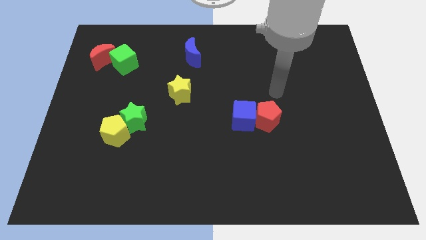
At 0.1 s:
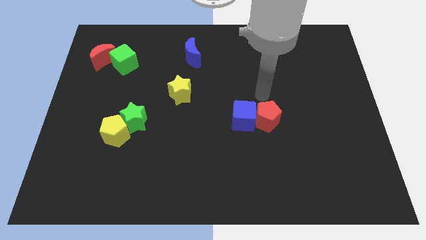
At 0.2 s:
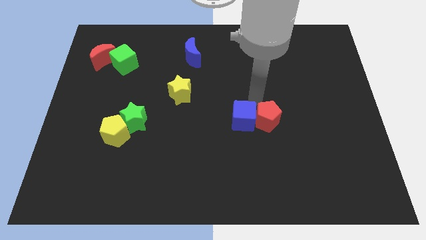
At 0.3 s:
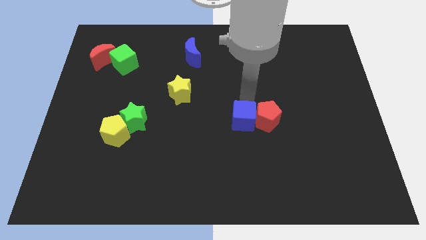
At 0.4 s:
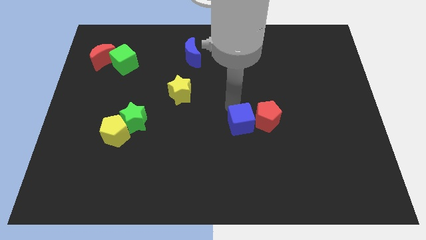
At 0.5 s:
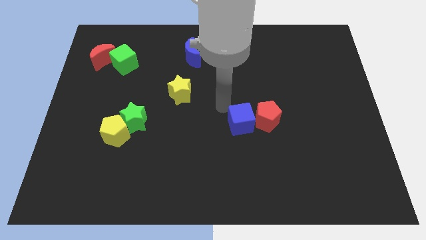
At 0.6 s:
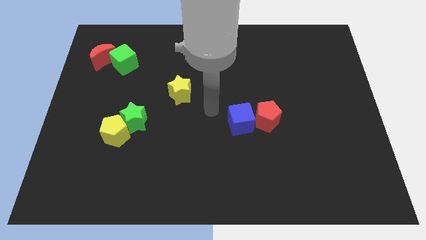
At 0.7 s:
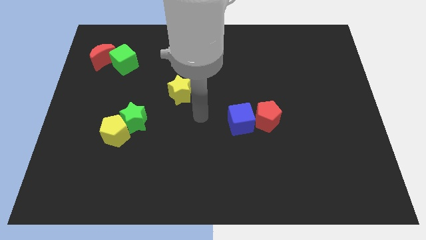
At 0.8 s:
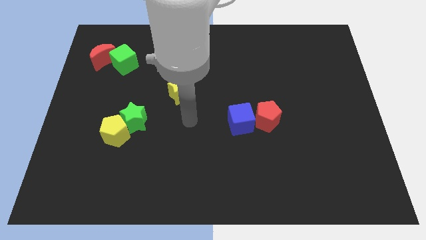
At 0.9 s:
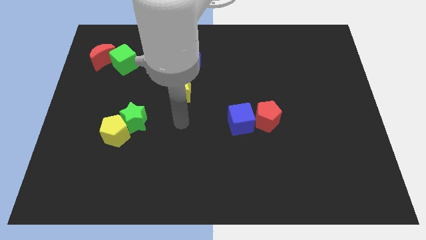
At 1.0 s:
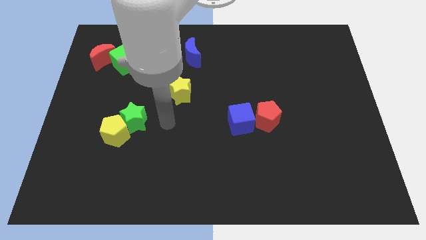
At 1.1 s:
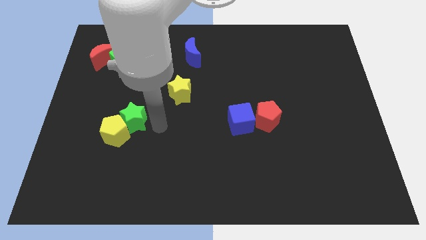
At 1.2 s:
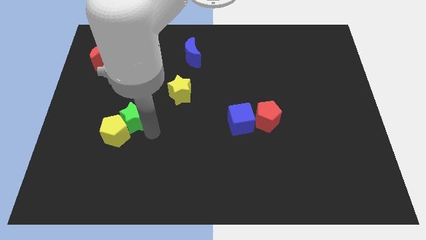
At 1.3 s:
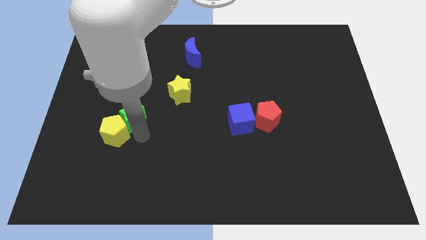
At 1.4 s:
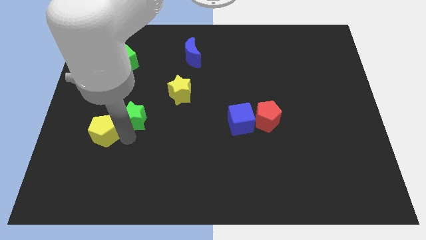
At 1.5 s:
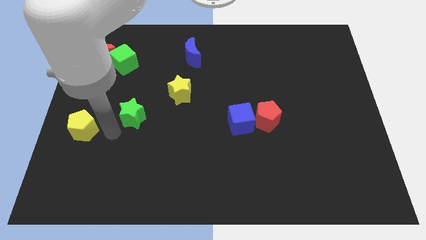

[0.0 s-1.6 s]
separate the green star from the yellow pentagon

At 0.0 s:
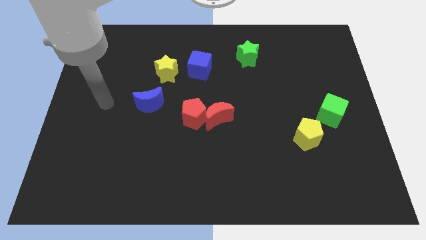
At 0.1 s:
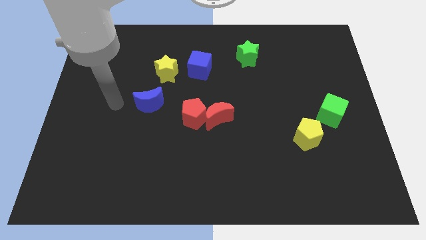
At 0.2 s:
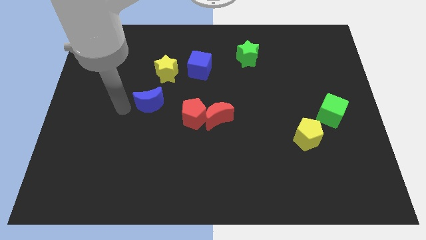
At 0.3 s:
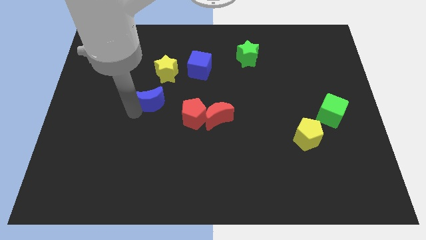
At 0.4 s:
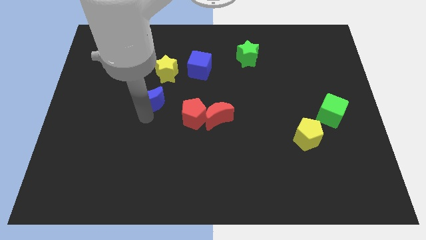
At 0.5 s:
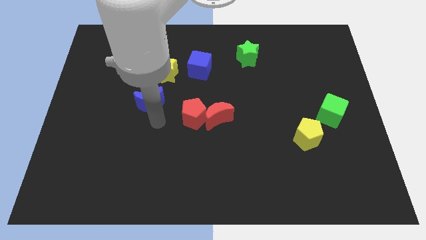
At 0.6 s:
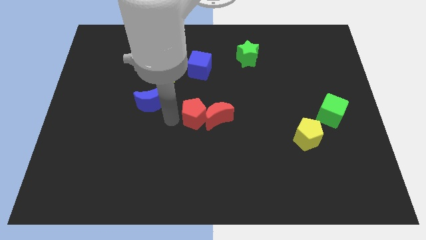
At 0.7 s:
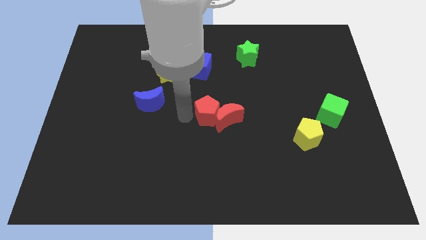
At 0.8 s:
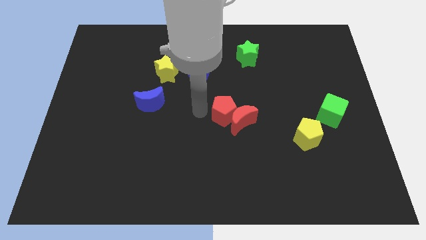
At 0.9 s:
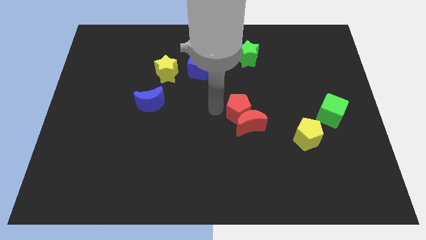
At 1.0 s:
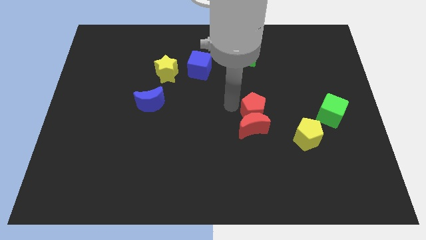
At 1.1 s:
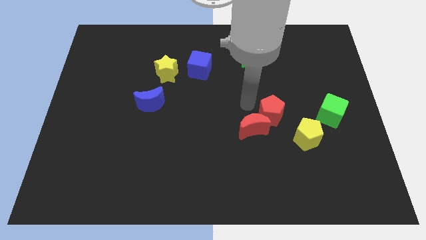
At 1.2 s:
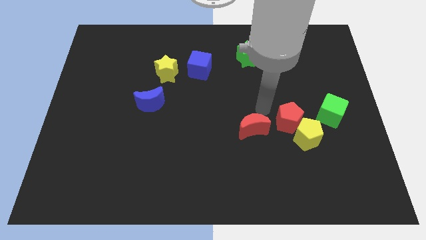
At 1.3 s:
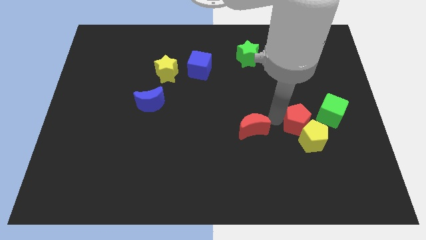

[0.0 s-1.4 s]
pull the red moon apart from the red pentagon

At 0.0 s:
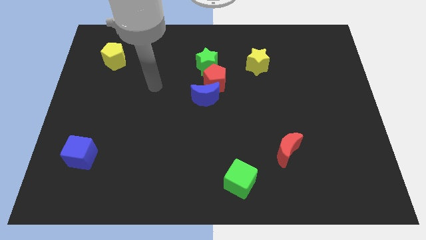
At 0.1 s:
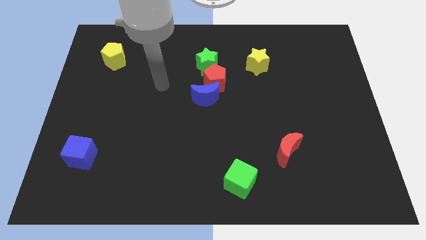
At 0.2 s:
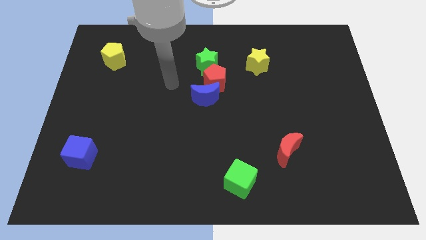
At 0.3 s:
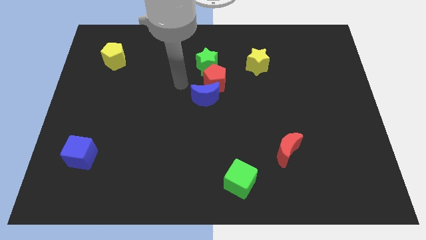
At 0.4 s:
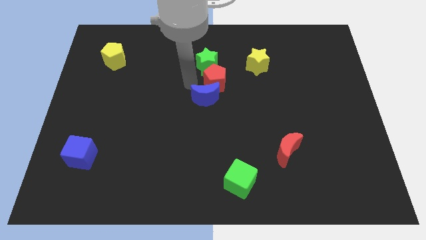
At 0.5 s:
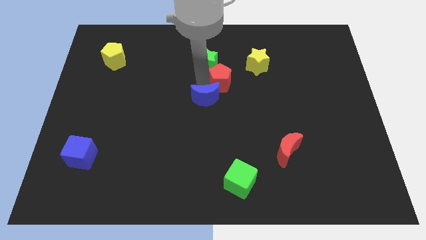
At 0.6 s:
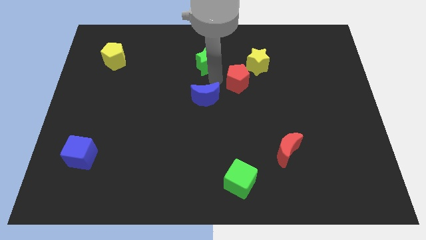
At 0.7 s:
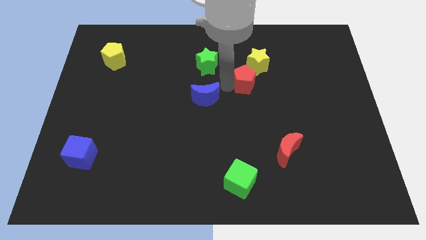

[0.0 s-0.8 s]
separate the blue moon from the red pentagon

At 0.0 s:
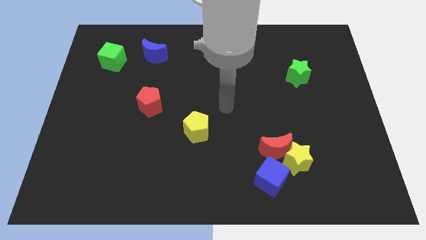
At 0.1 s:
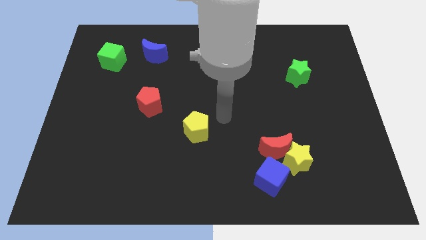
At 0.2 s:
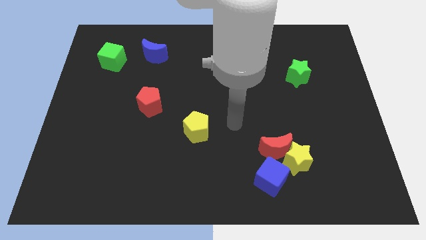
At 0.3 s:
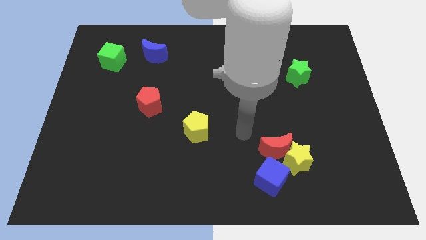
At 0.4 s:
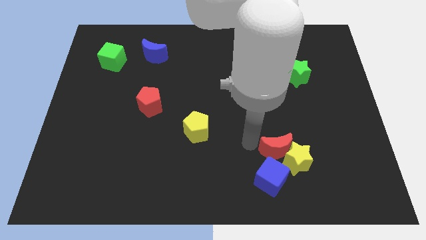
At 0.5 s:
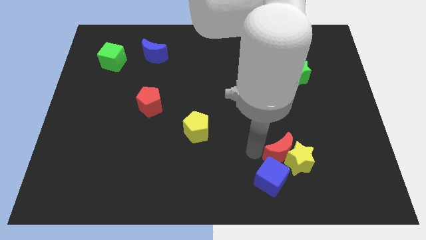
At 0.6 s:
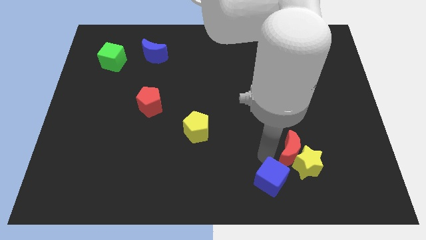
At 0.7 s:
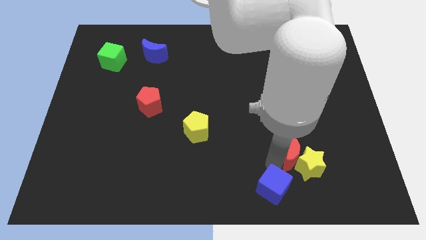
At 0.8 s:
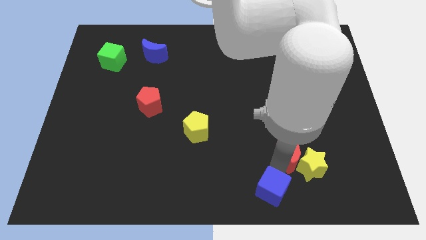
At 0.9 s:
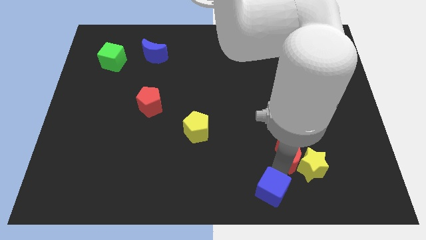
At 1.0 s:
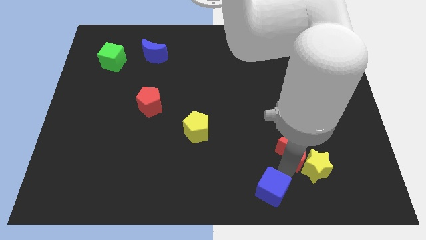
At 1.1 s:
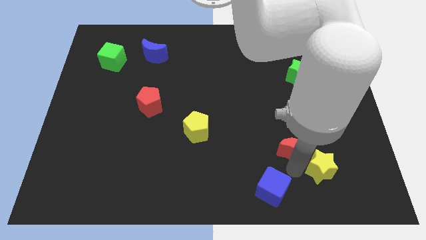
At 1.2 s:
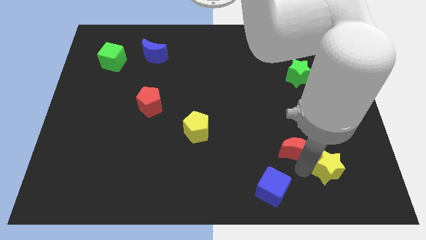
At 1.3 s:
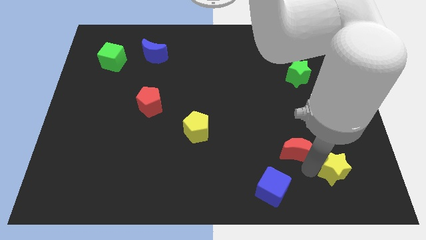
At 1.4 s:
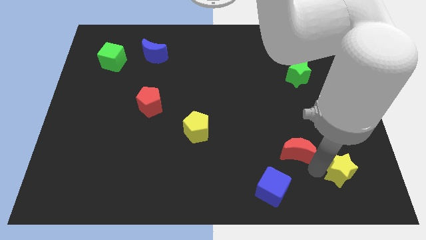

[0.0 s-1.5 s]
pull the yellow star apart from the red moon and blue cube

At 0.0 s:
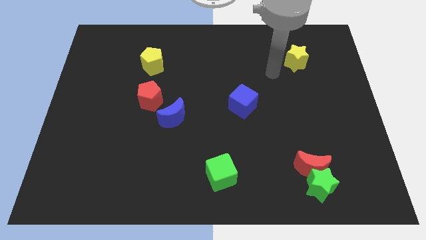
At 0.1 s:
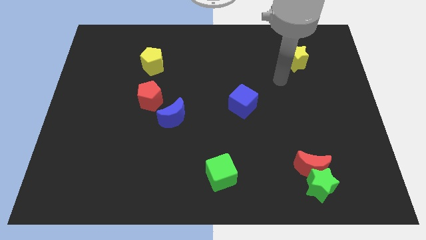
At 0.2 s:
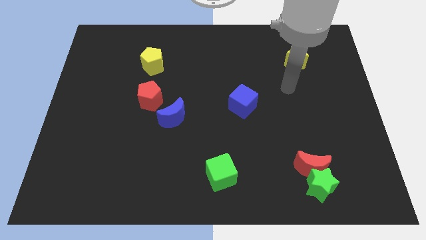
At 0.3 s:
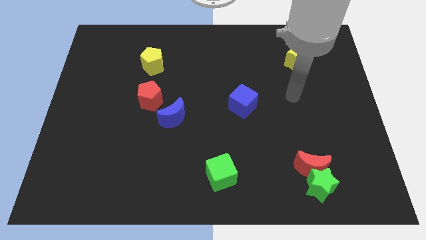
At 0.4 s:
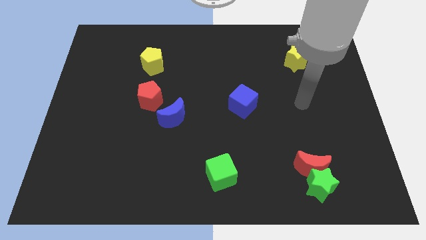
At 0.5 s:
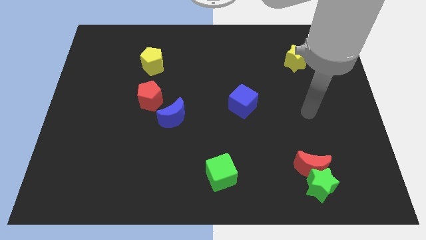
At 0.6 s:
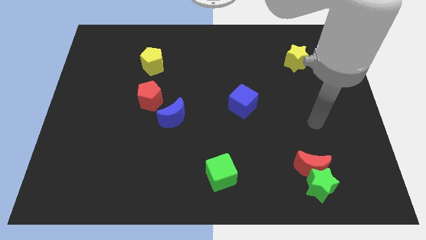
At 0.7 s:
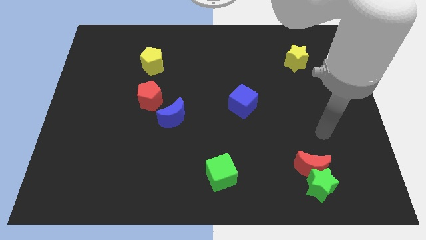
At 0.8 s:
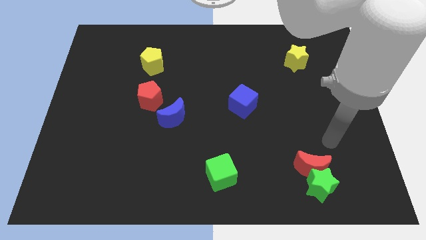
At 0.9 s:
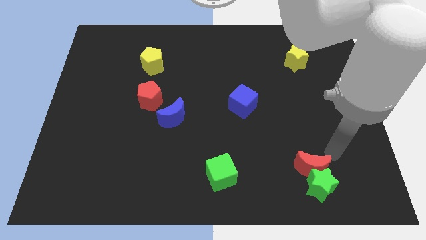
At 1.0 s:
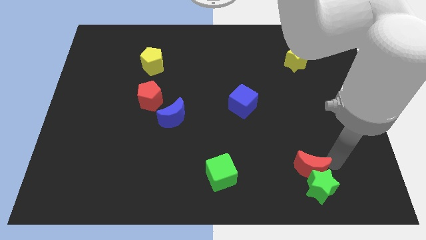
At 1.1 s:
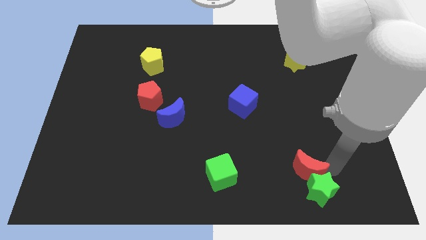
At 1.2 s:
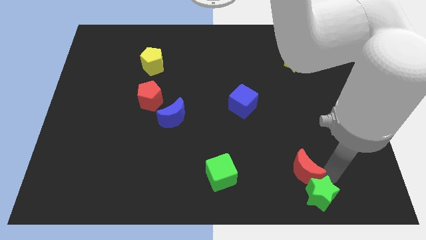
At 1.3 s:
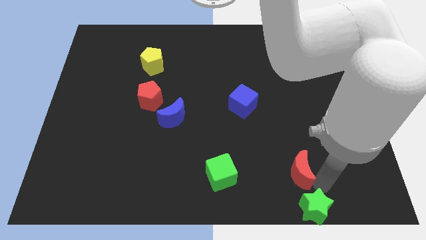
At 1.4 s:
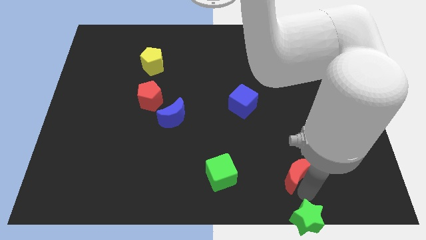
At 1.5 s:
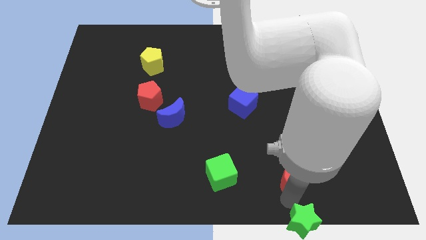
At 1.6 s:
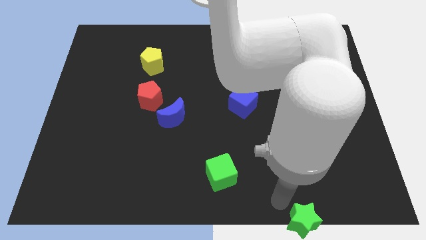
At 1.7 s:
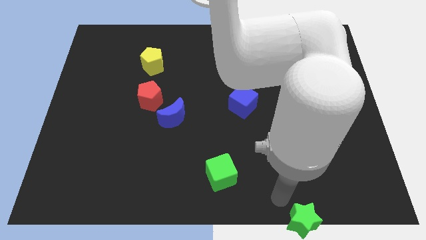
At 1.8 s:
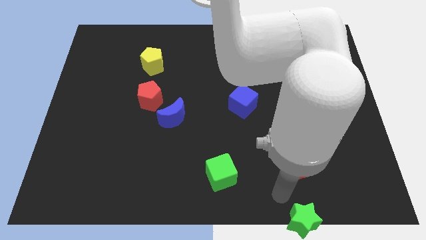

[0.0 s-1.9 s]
move the red moon away from the green star

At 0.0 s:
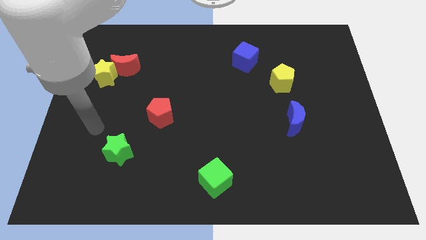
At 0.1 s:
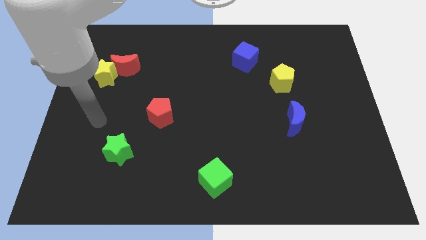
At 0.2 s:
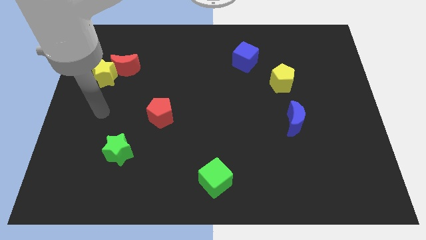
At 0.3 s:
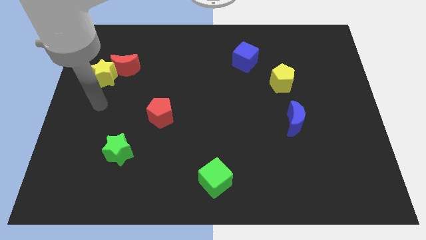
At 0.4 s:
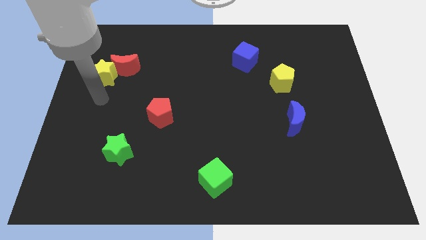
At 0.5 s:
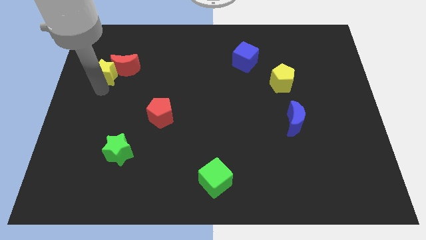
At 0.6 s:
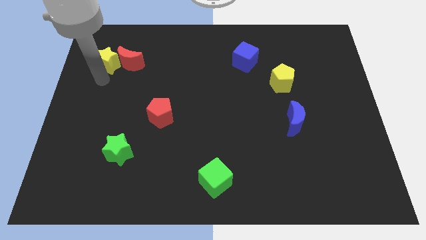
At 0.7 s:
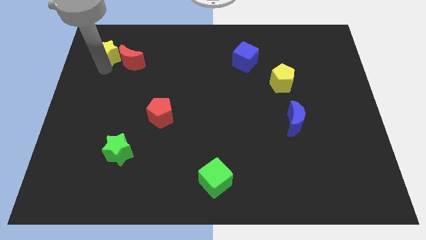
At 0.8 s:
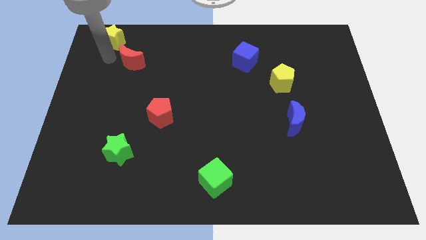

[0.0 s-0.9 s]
separate the red moon from the yellow star

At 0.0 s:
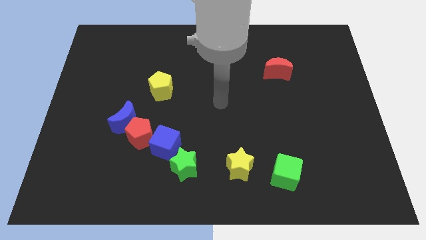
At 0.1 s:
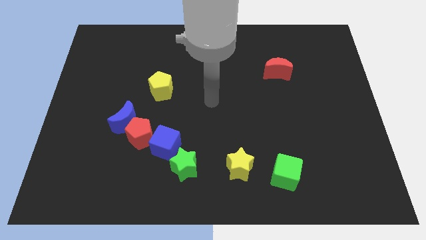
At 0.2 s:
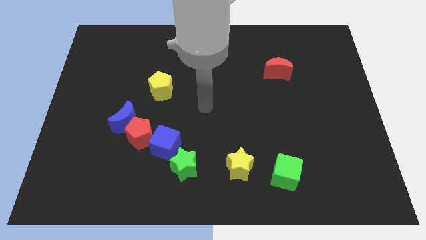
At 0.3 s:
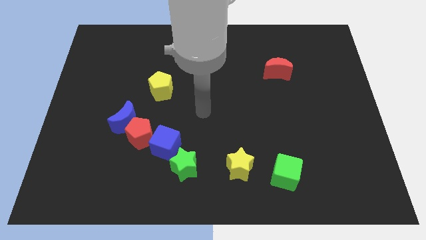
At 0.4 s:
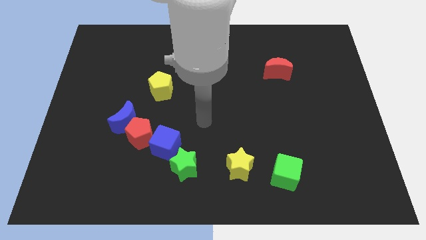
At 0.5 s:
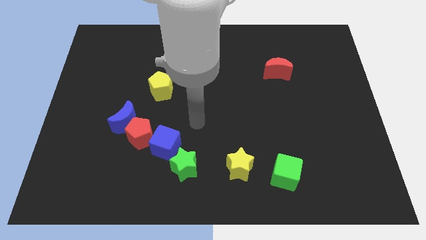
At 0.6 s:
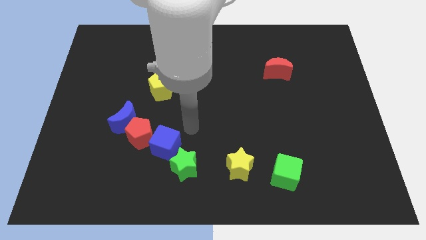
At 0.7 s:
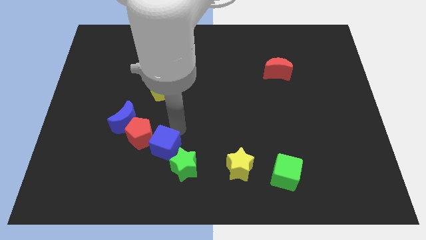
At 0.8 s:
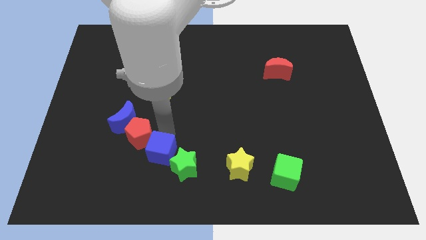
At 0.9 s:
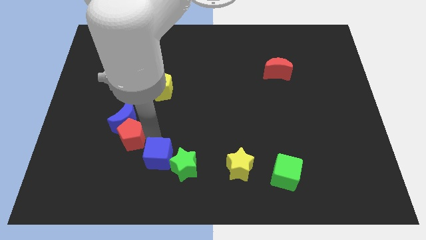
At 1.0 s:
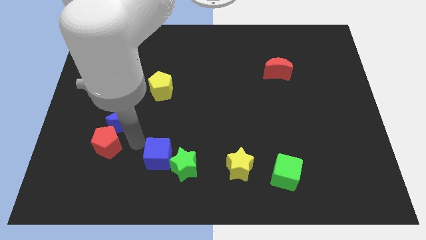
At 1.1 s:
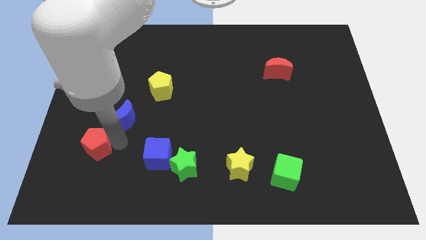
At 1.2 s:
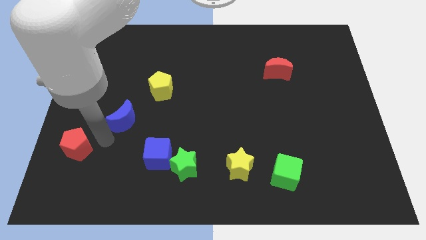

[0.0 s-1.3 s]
move the blue moon away from the red pentagon
